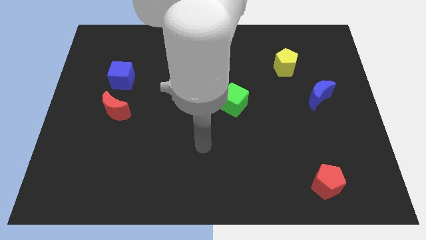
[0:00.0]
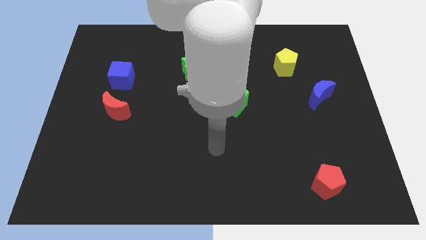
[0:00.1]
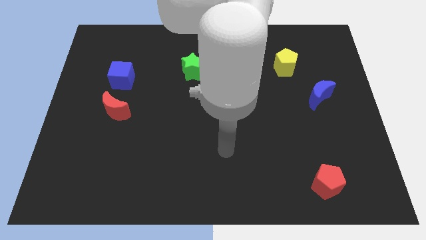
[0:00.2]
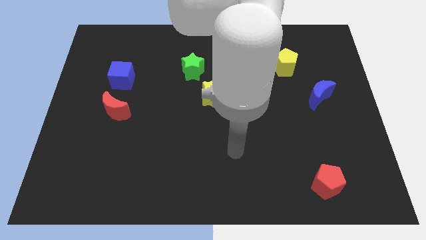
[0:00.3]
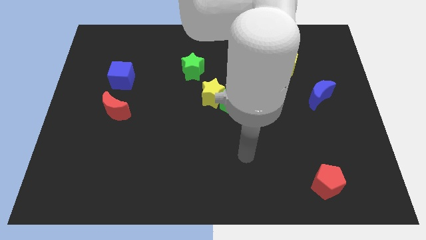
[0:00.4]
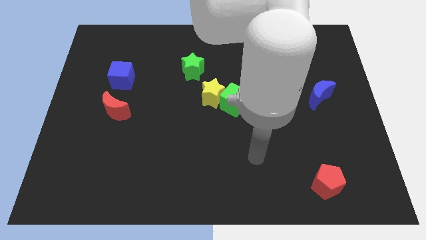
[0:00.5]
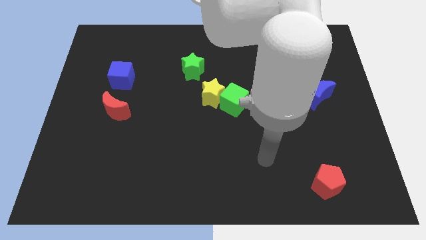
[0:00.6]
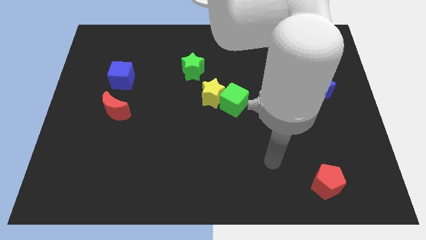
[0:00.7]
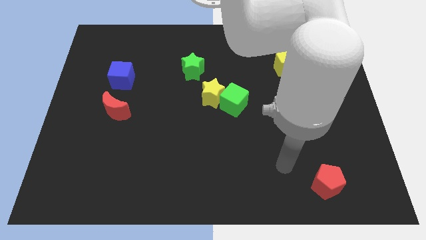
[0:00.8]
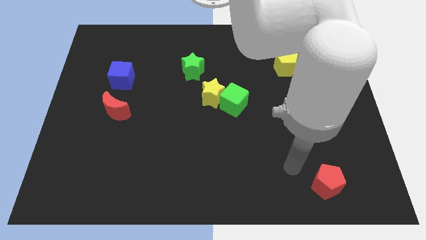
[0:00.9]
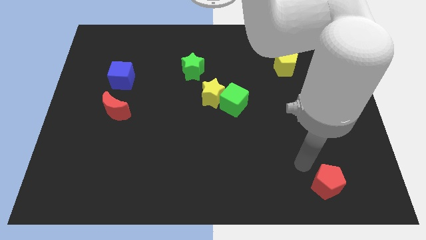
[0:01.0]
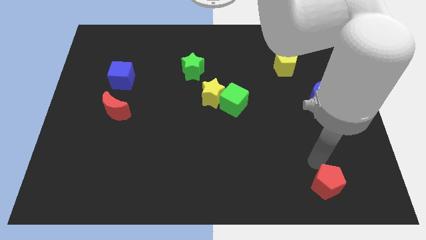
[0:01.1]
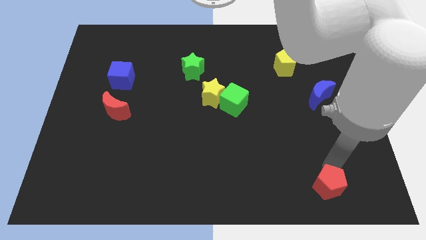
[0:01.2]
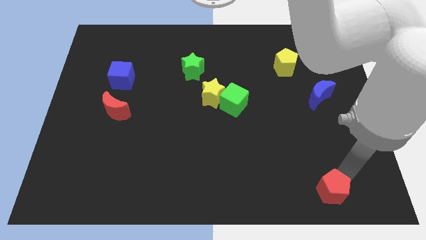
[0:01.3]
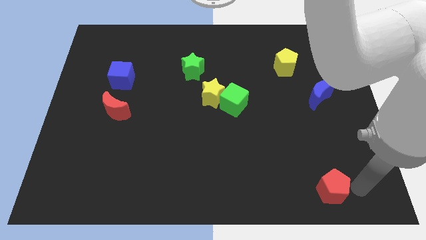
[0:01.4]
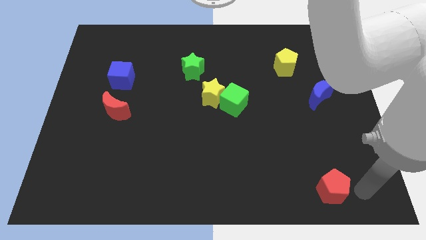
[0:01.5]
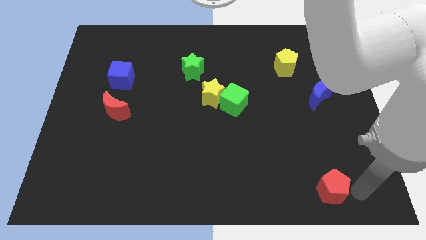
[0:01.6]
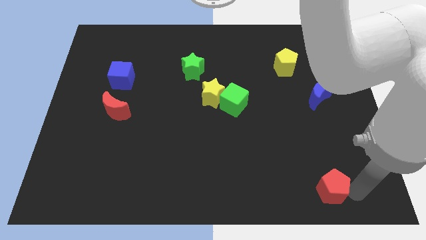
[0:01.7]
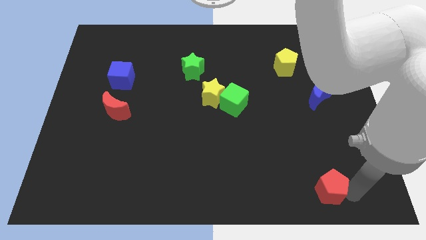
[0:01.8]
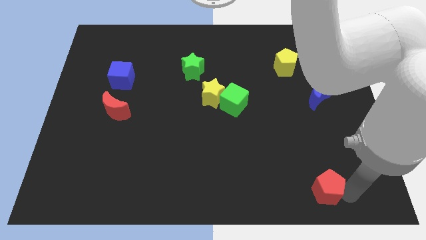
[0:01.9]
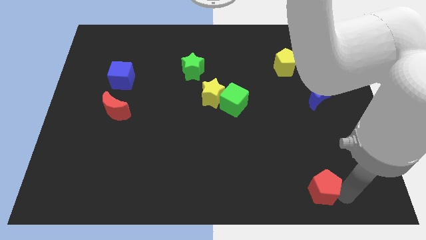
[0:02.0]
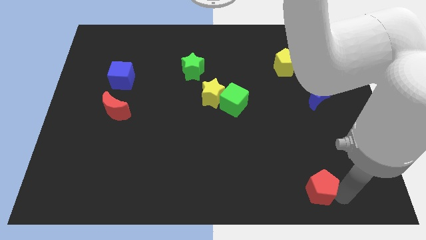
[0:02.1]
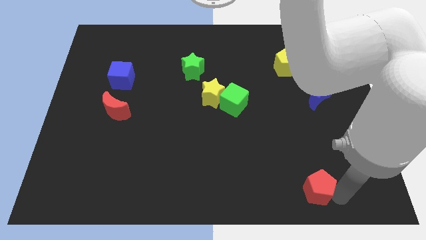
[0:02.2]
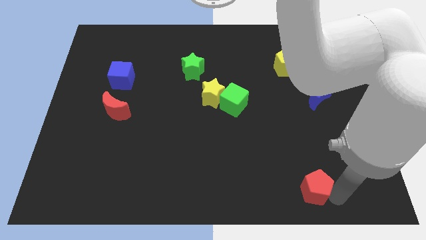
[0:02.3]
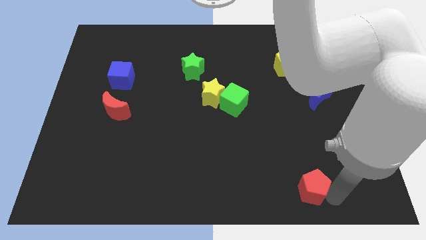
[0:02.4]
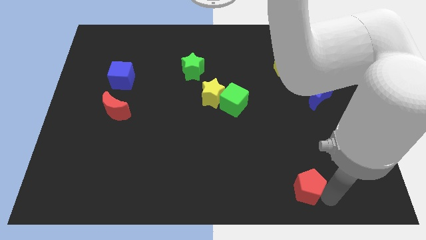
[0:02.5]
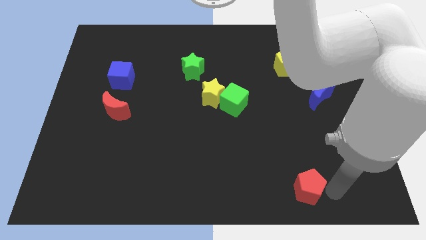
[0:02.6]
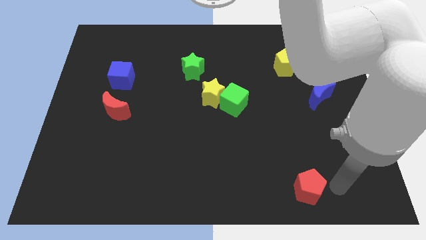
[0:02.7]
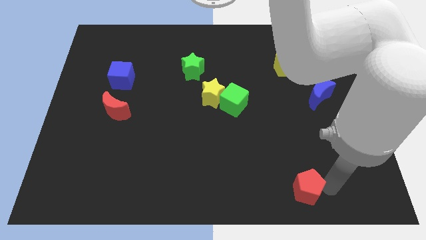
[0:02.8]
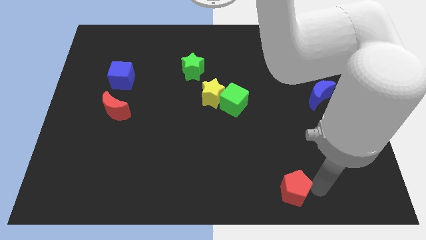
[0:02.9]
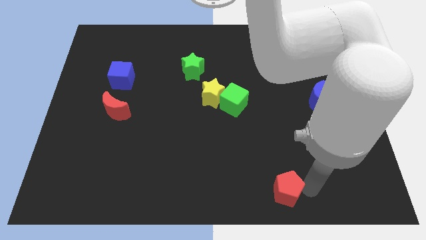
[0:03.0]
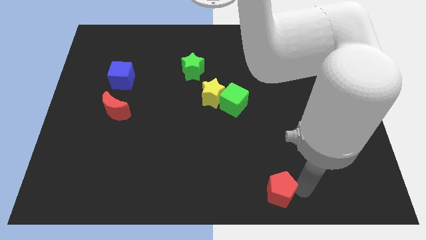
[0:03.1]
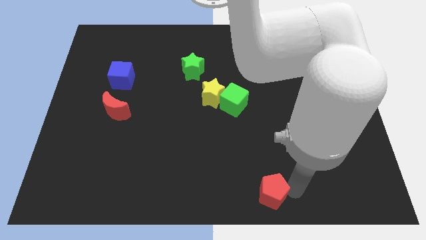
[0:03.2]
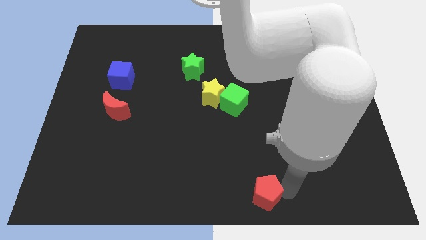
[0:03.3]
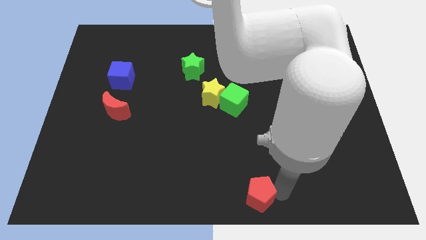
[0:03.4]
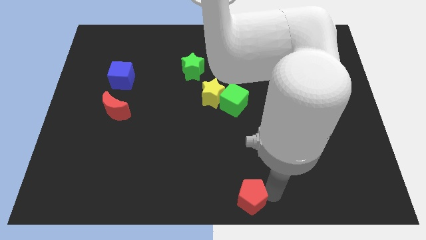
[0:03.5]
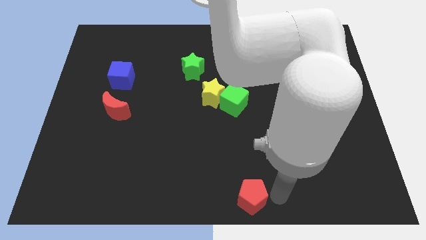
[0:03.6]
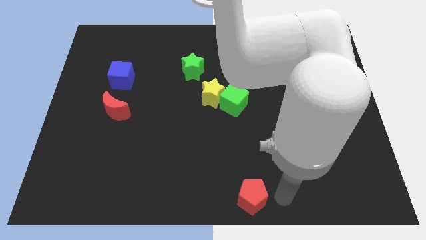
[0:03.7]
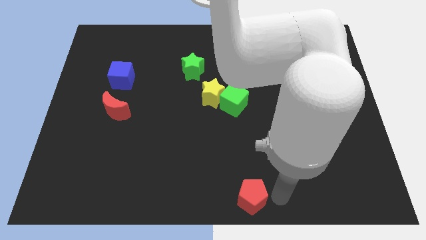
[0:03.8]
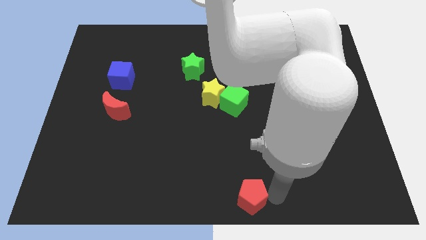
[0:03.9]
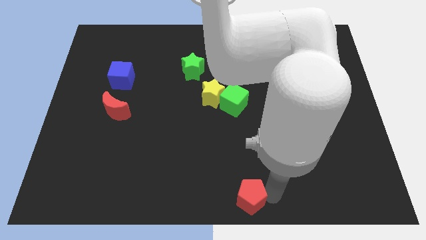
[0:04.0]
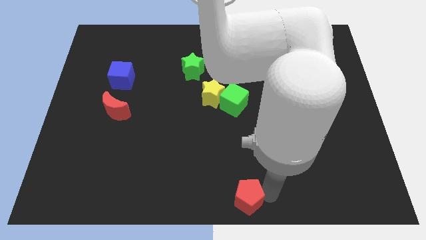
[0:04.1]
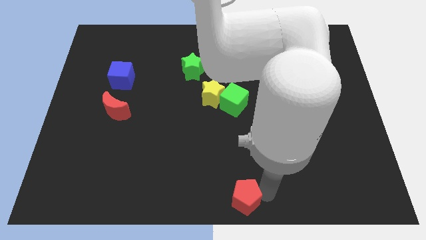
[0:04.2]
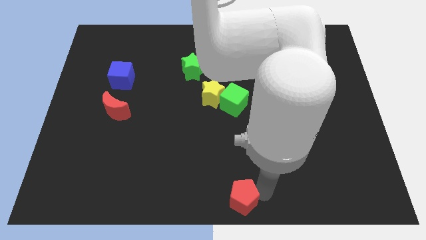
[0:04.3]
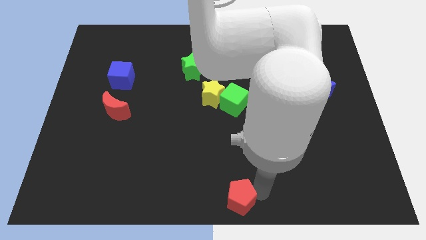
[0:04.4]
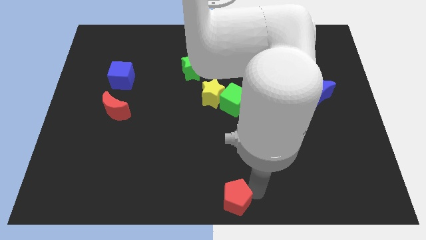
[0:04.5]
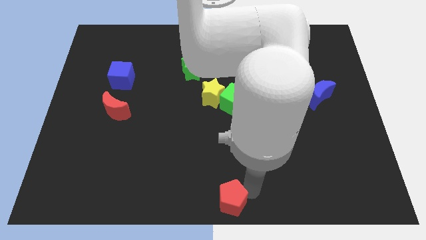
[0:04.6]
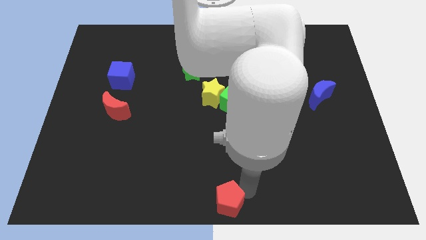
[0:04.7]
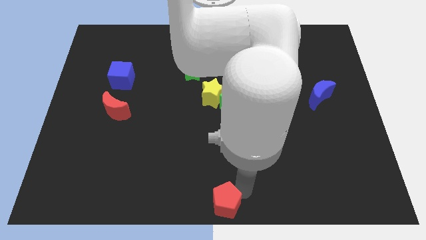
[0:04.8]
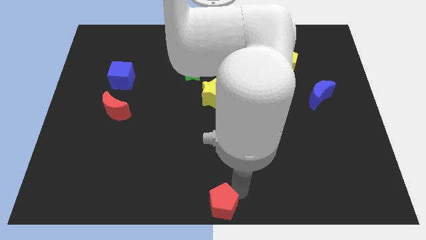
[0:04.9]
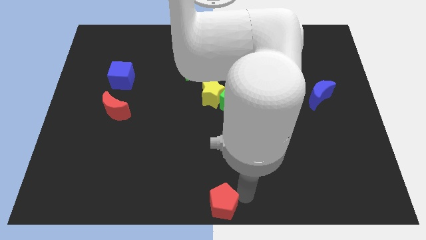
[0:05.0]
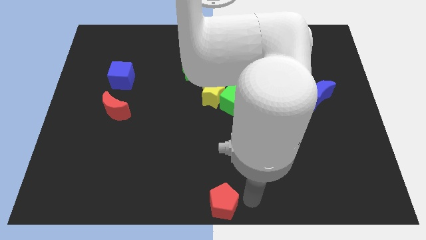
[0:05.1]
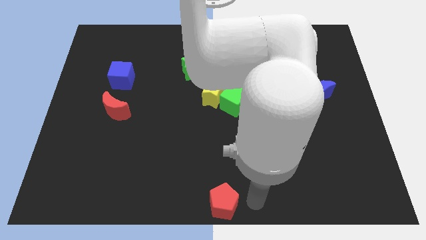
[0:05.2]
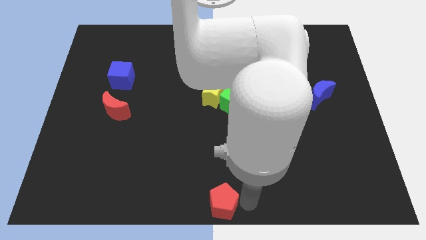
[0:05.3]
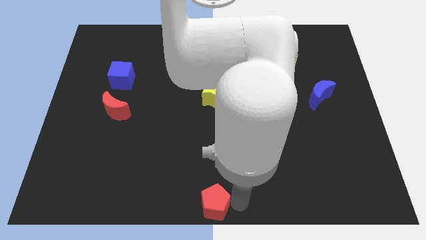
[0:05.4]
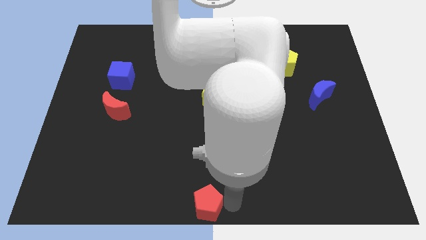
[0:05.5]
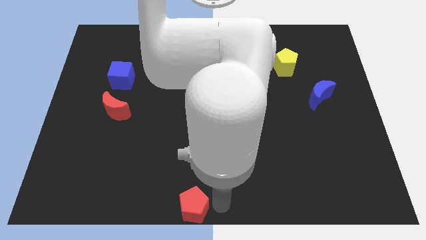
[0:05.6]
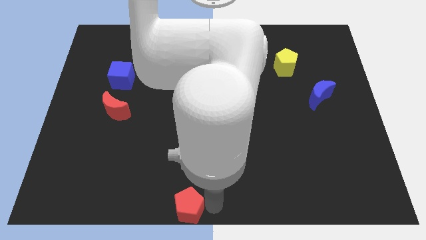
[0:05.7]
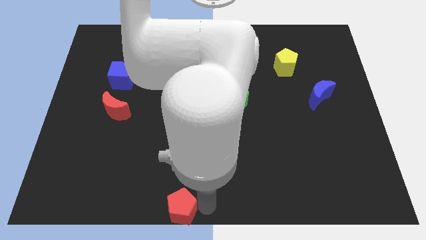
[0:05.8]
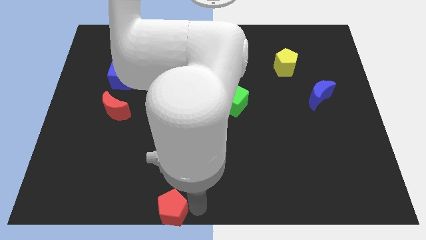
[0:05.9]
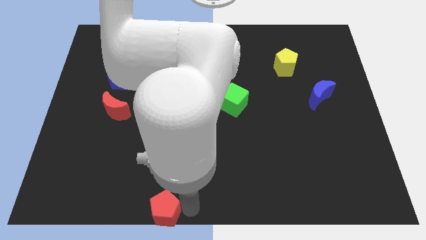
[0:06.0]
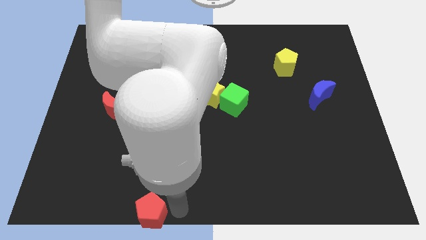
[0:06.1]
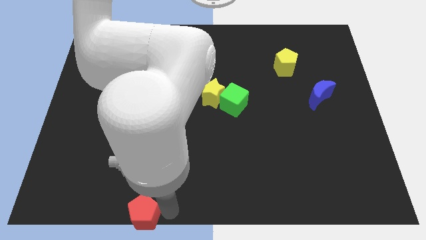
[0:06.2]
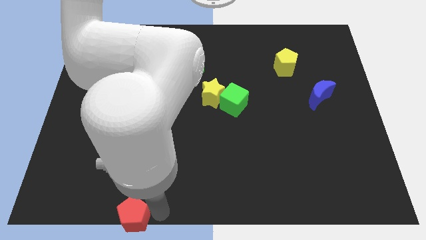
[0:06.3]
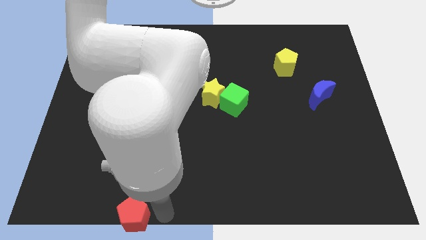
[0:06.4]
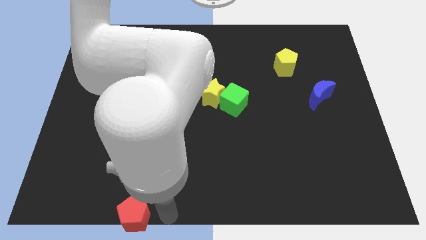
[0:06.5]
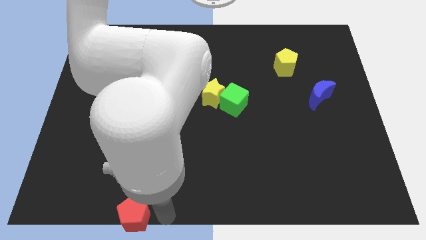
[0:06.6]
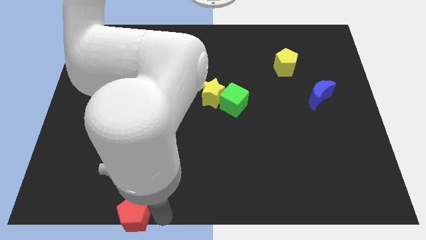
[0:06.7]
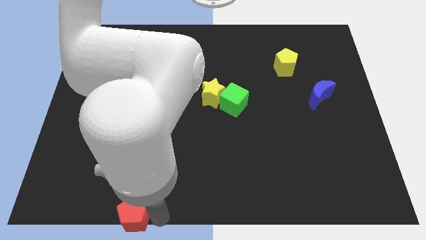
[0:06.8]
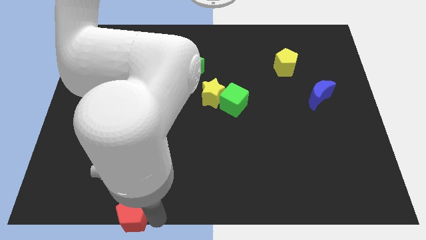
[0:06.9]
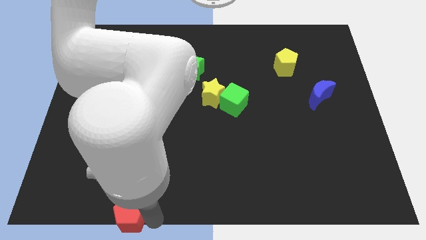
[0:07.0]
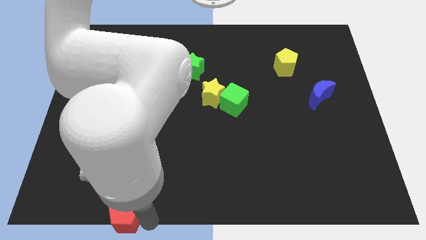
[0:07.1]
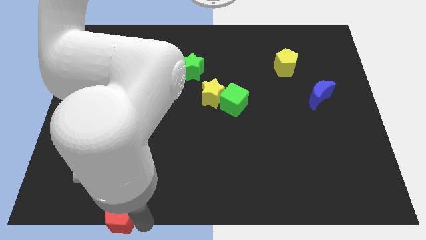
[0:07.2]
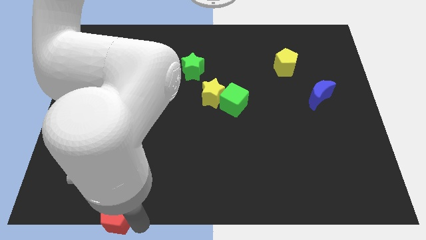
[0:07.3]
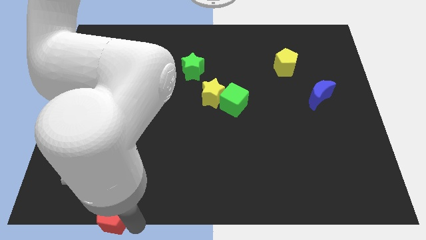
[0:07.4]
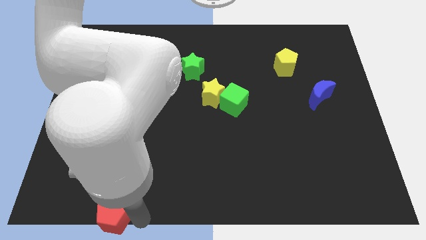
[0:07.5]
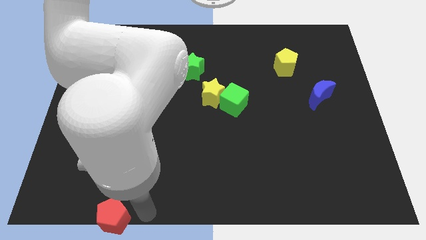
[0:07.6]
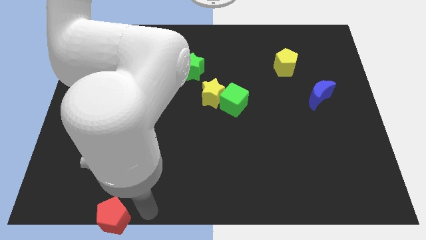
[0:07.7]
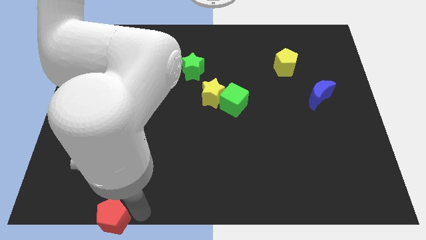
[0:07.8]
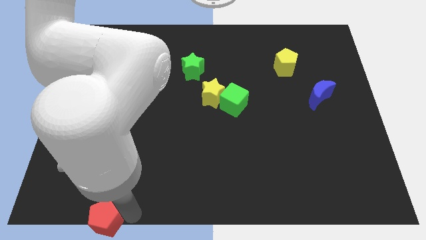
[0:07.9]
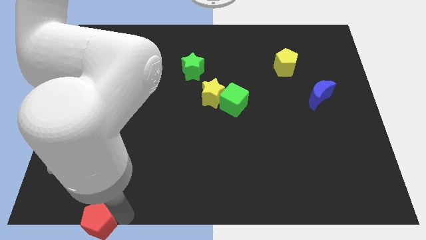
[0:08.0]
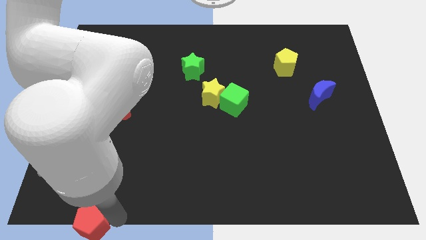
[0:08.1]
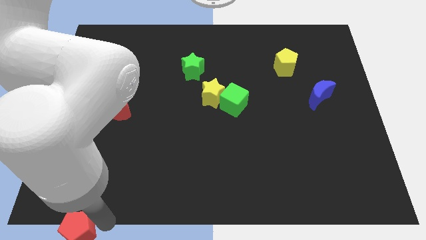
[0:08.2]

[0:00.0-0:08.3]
move the red pentagon to the lower left corner
